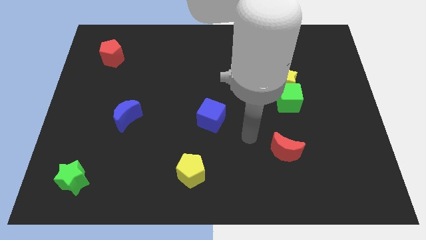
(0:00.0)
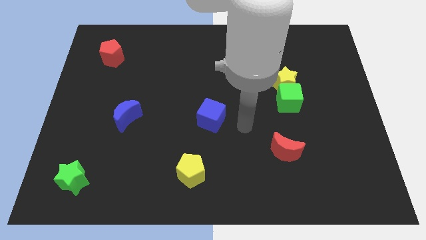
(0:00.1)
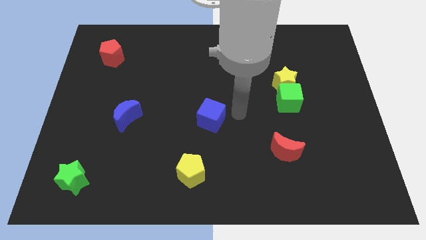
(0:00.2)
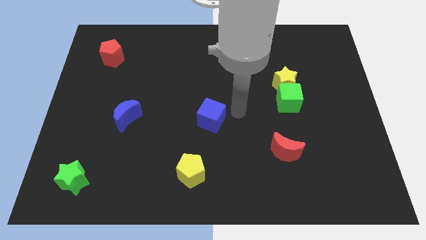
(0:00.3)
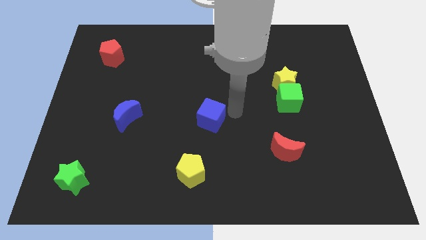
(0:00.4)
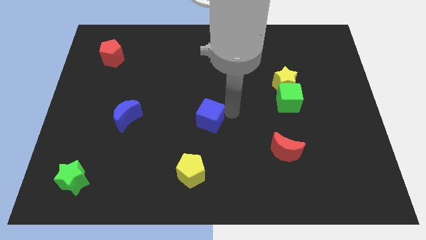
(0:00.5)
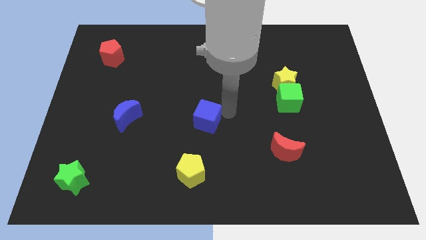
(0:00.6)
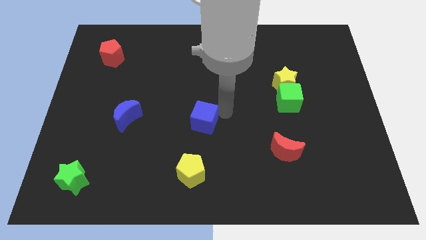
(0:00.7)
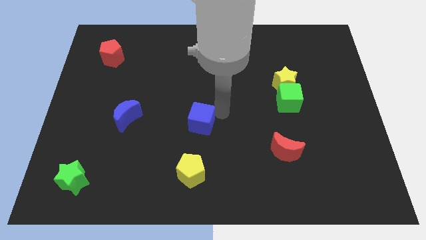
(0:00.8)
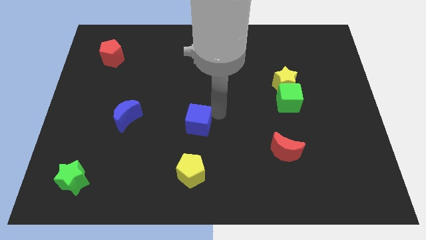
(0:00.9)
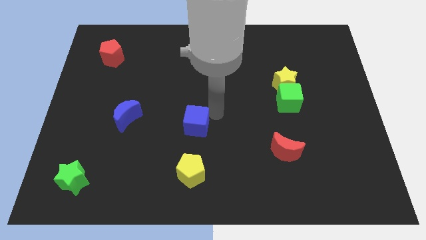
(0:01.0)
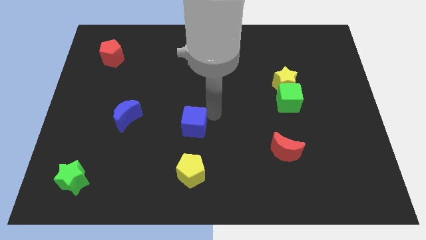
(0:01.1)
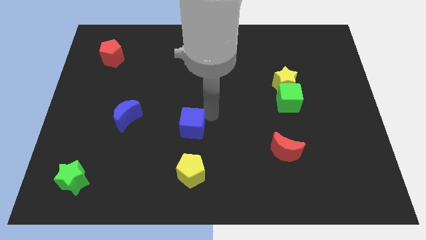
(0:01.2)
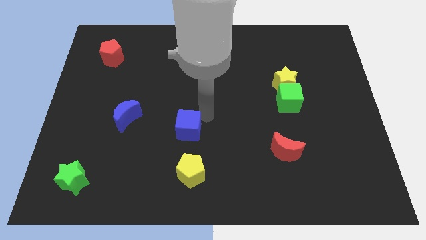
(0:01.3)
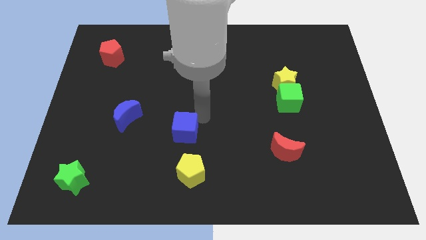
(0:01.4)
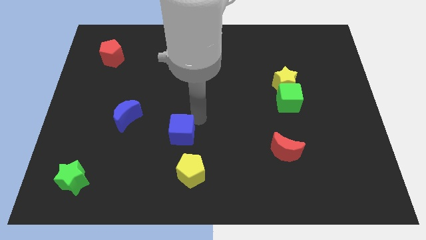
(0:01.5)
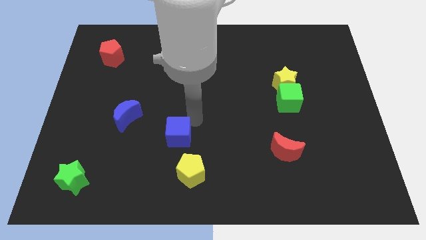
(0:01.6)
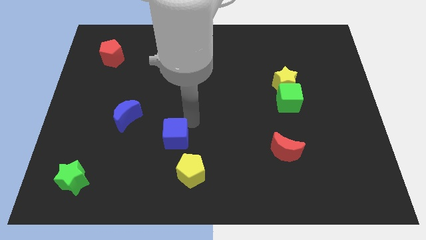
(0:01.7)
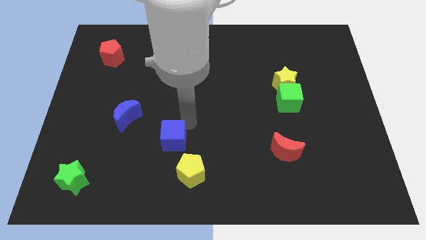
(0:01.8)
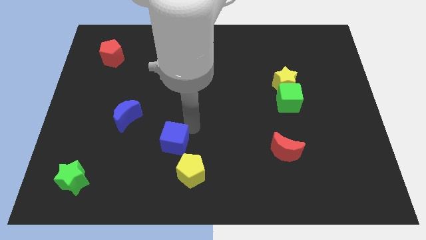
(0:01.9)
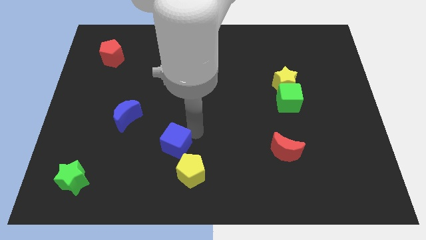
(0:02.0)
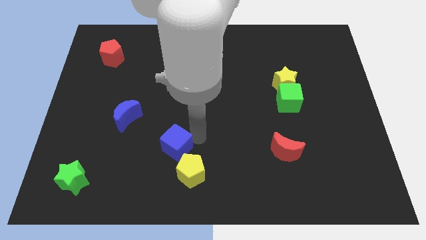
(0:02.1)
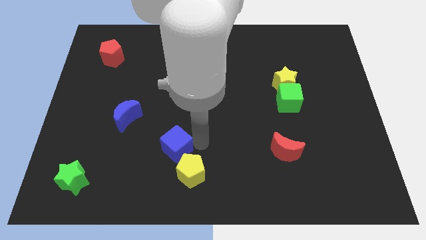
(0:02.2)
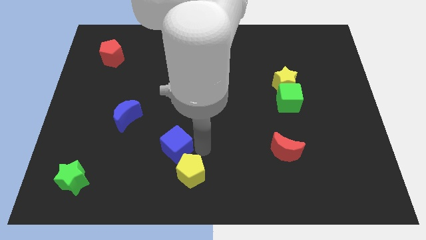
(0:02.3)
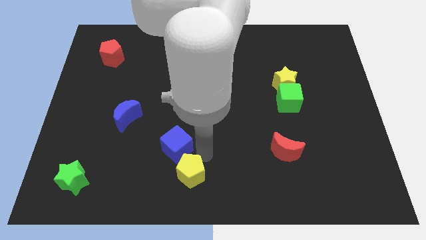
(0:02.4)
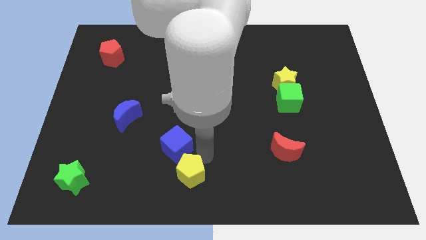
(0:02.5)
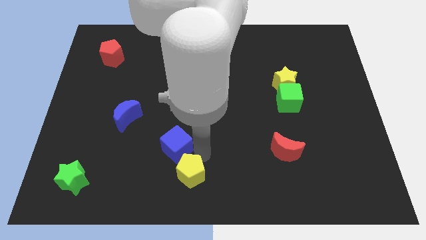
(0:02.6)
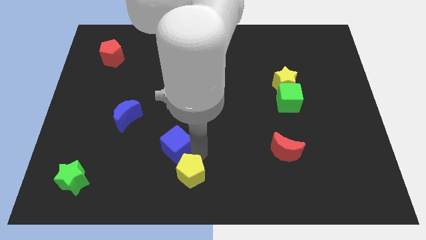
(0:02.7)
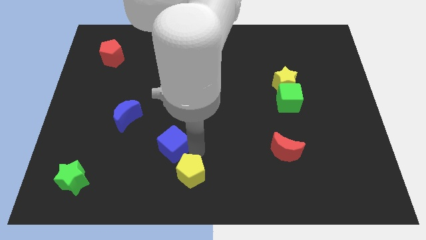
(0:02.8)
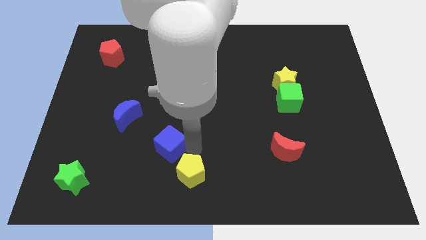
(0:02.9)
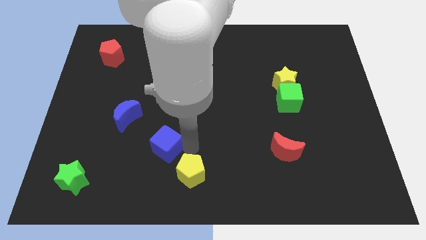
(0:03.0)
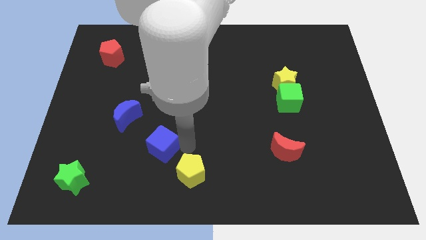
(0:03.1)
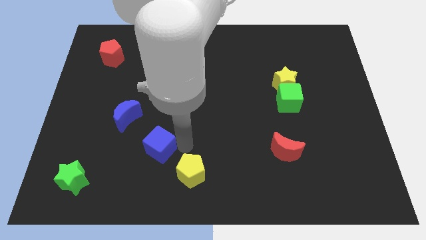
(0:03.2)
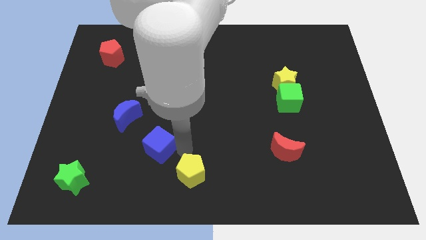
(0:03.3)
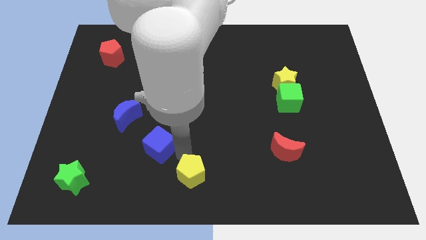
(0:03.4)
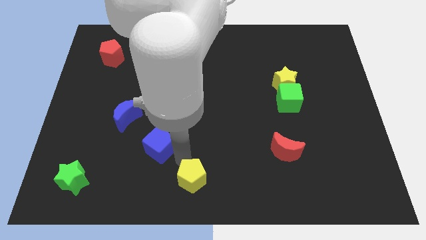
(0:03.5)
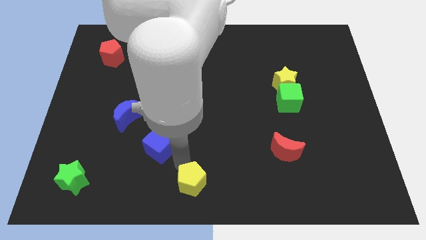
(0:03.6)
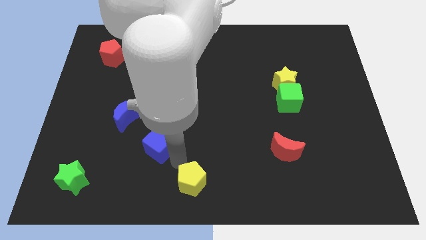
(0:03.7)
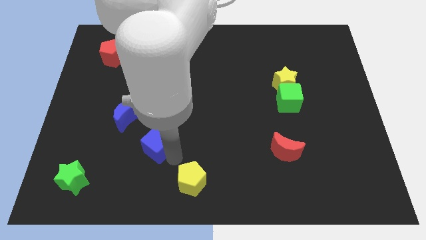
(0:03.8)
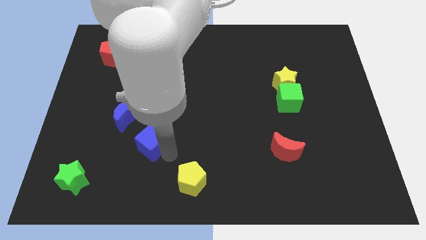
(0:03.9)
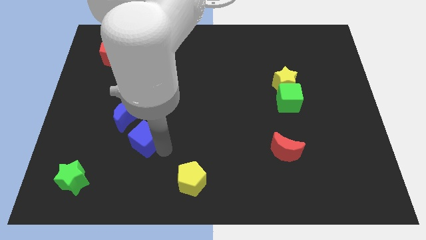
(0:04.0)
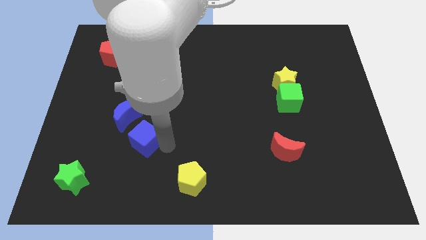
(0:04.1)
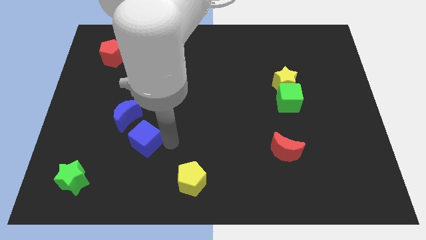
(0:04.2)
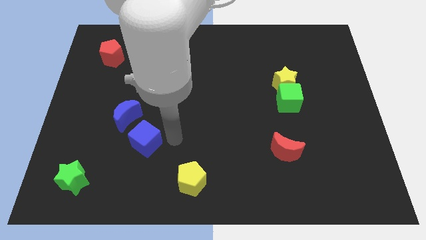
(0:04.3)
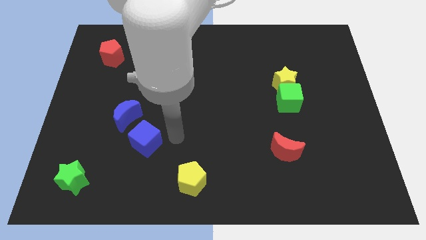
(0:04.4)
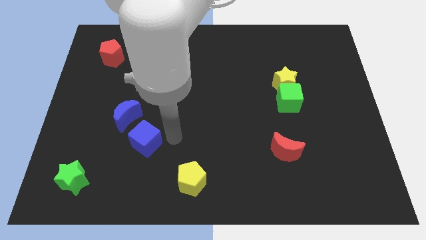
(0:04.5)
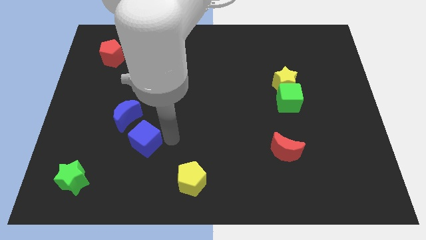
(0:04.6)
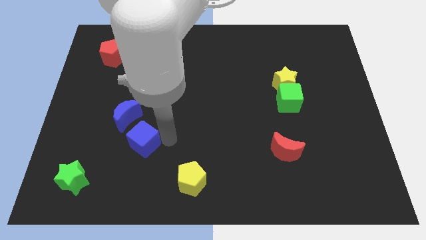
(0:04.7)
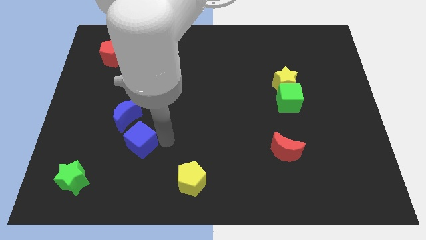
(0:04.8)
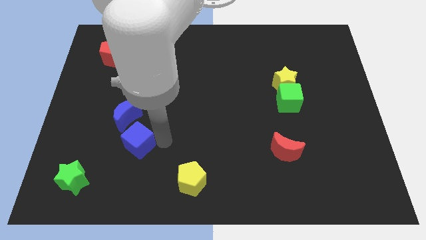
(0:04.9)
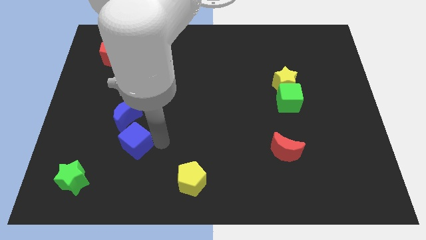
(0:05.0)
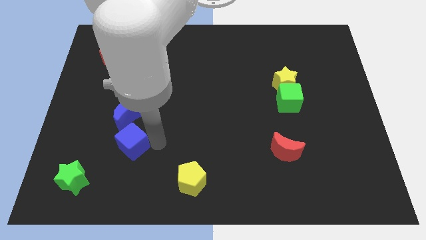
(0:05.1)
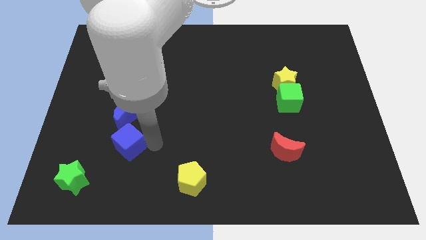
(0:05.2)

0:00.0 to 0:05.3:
move the blue cube to the top right side of the green star

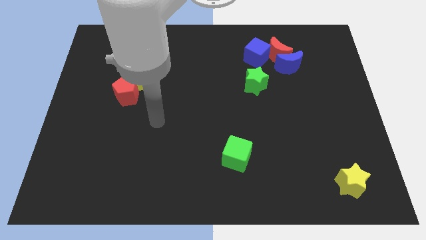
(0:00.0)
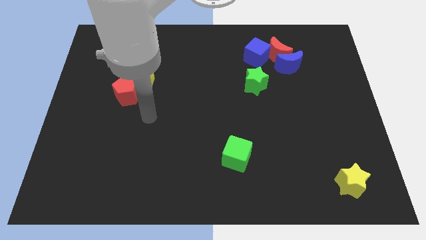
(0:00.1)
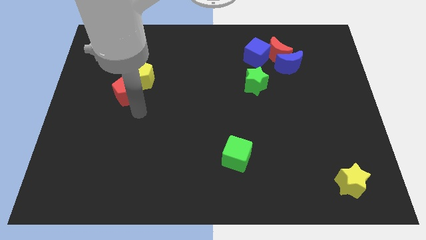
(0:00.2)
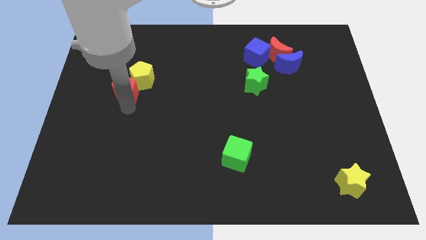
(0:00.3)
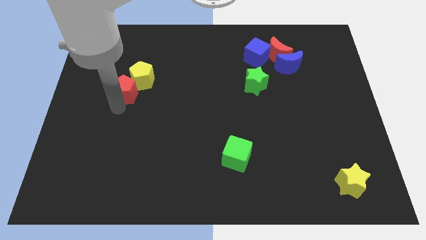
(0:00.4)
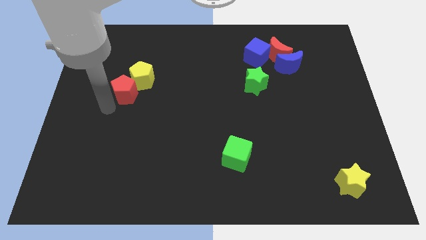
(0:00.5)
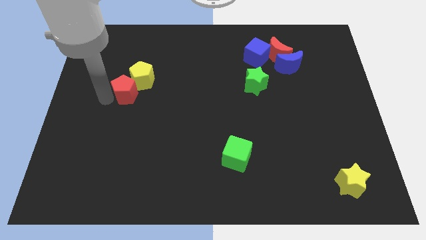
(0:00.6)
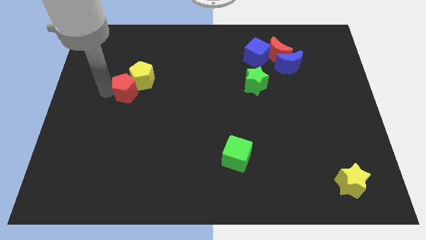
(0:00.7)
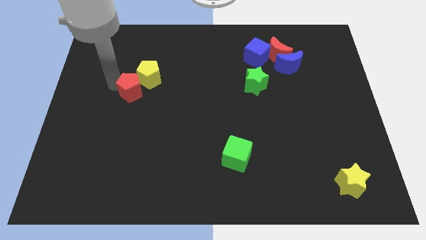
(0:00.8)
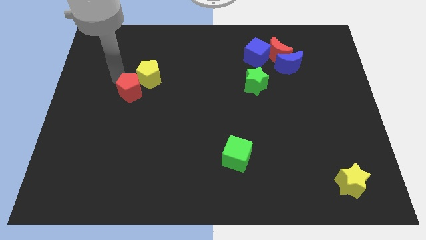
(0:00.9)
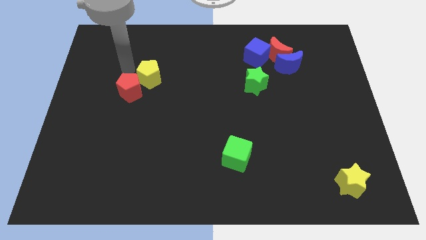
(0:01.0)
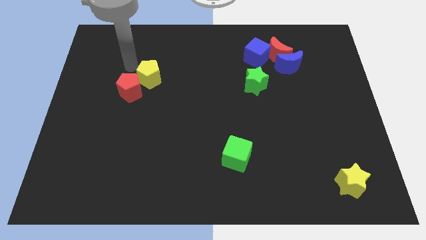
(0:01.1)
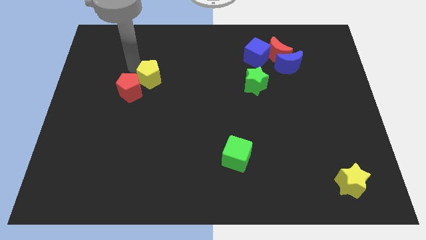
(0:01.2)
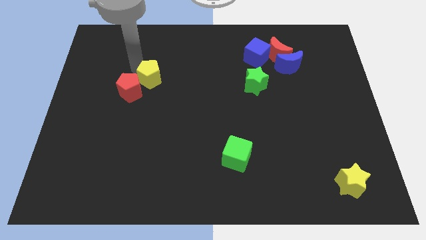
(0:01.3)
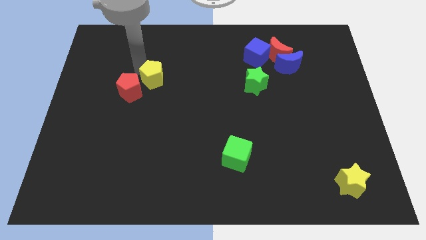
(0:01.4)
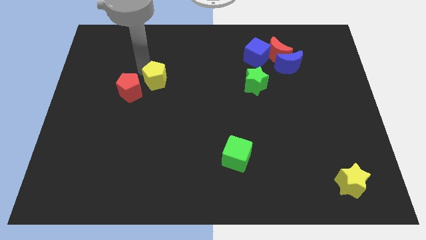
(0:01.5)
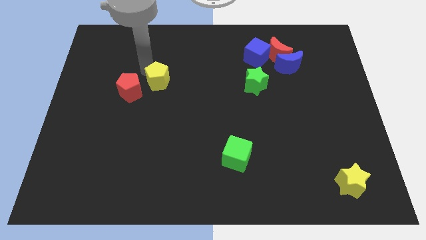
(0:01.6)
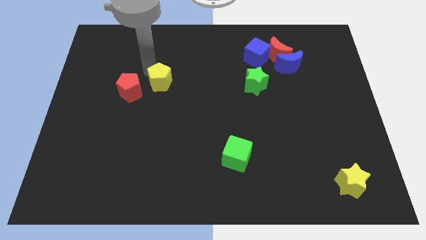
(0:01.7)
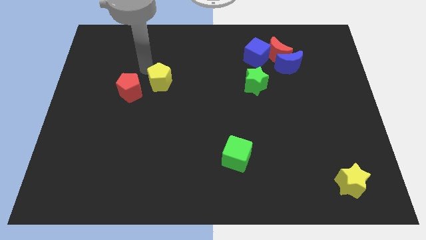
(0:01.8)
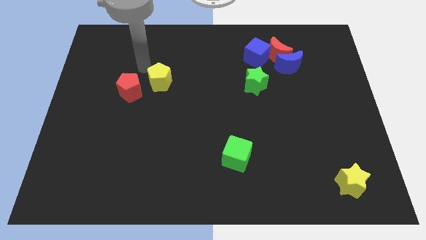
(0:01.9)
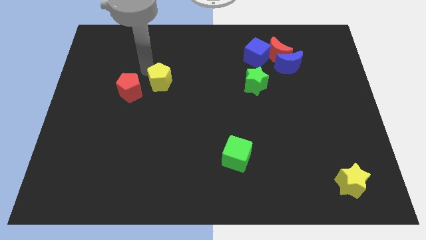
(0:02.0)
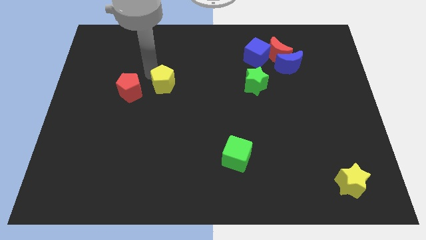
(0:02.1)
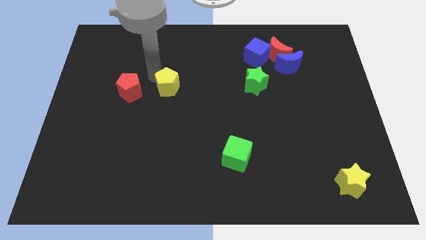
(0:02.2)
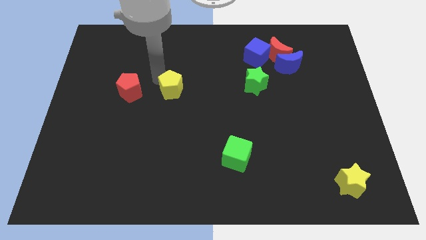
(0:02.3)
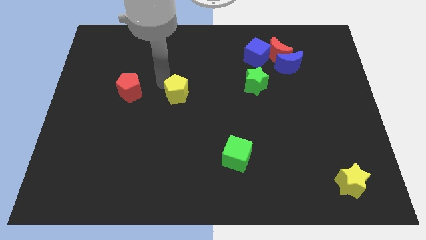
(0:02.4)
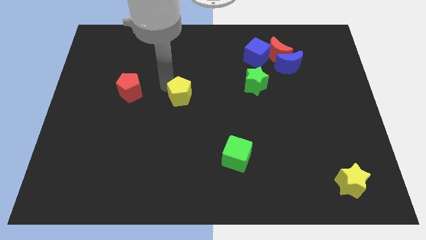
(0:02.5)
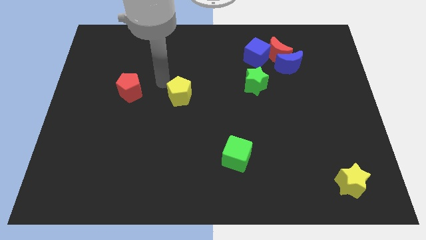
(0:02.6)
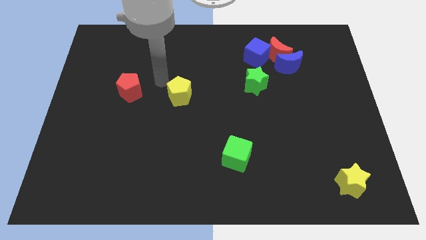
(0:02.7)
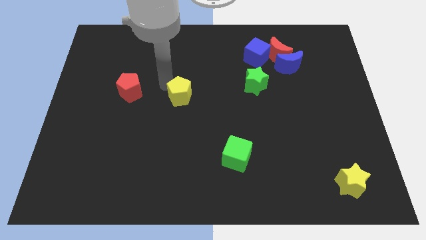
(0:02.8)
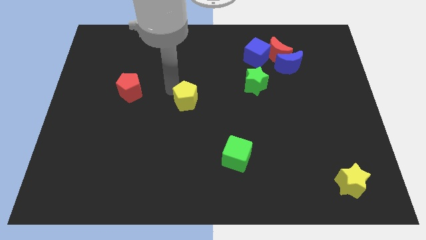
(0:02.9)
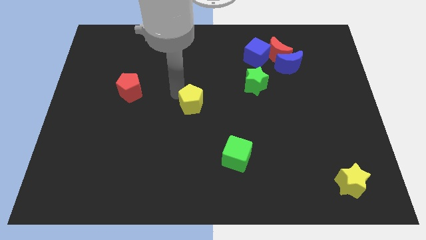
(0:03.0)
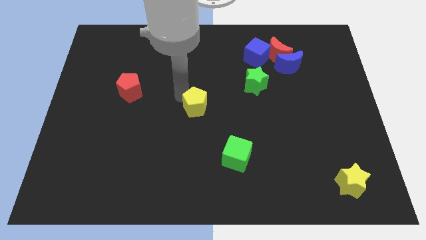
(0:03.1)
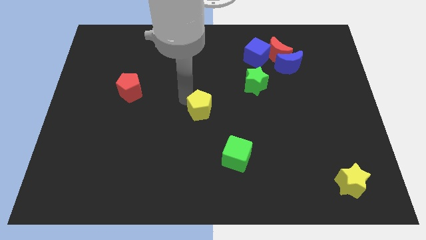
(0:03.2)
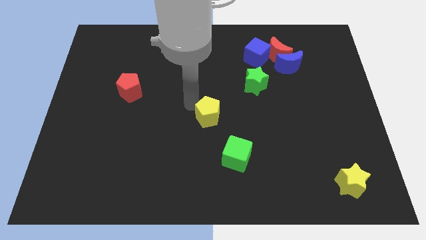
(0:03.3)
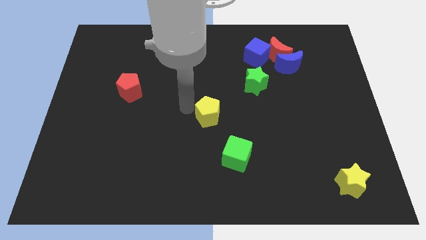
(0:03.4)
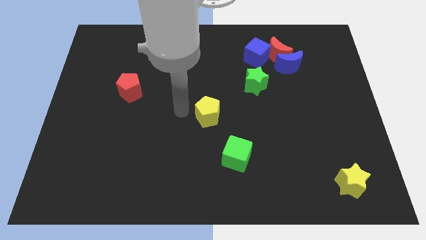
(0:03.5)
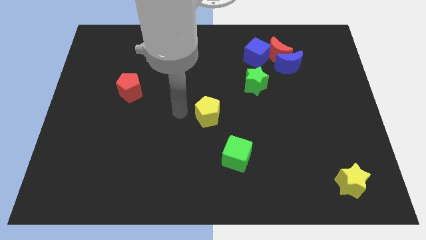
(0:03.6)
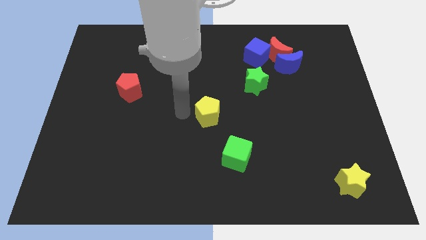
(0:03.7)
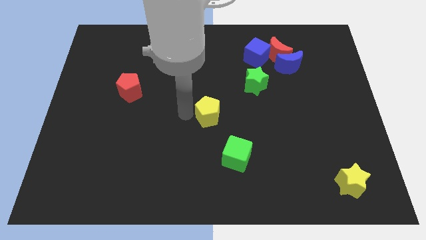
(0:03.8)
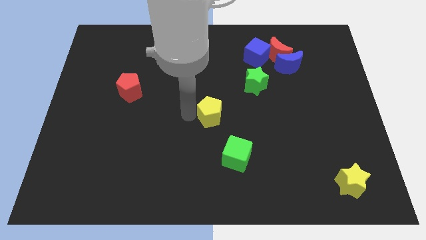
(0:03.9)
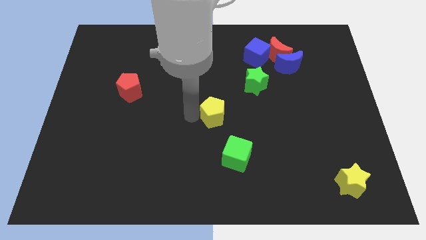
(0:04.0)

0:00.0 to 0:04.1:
put the yellow pentagon to the top of the green cube
